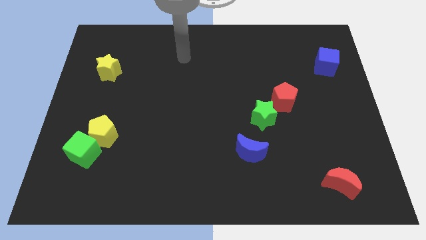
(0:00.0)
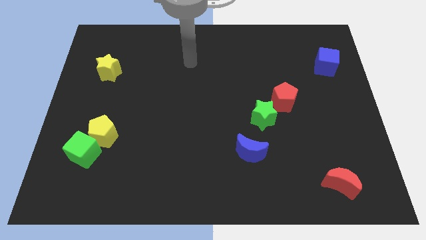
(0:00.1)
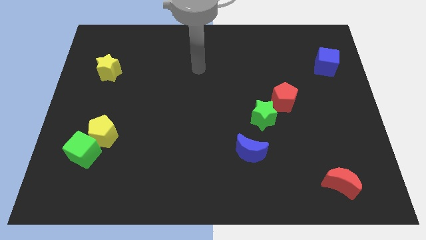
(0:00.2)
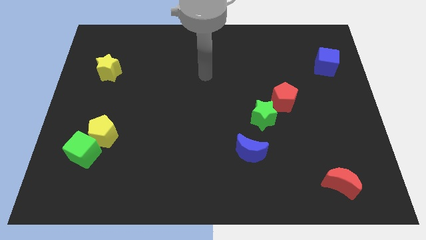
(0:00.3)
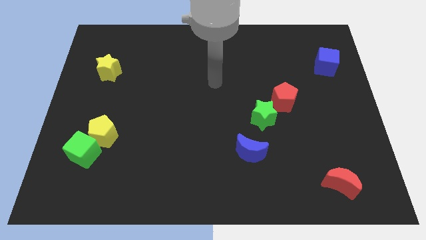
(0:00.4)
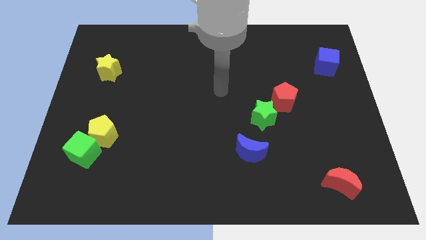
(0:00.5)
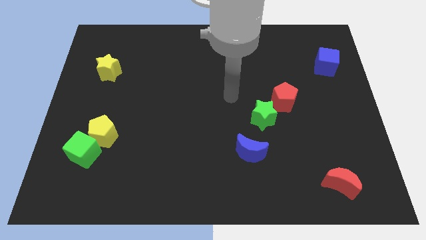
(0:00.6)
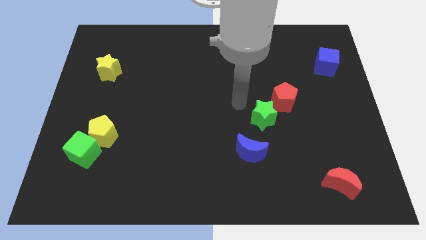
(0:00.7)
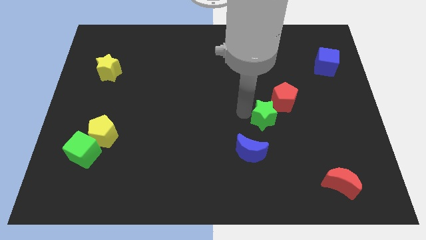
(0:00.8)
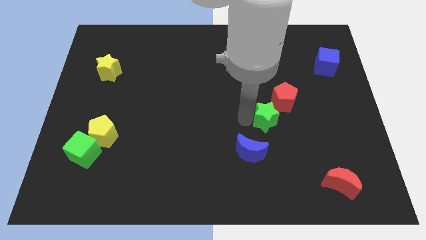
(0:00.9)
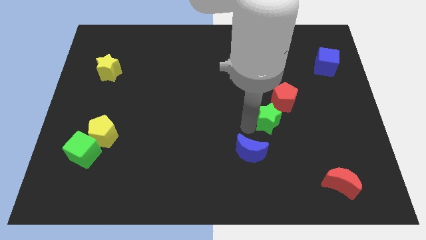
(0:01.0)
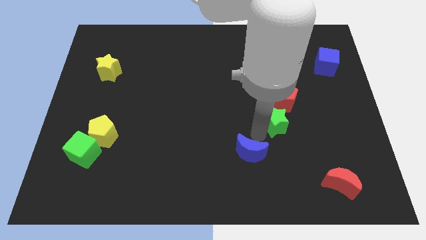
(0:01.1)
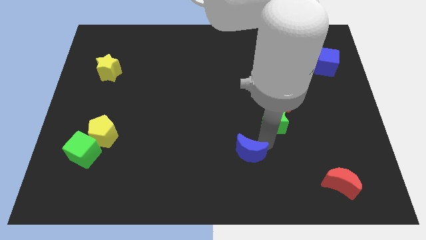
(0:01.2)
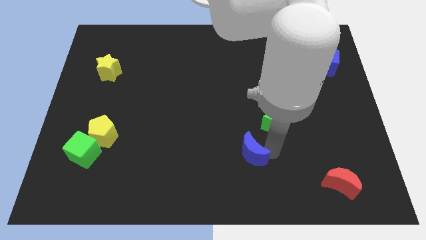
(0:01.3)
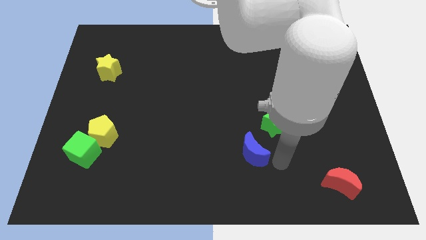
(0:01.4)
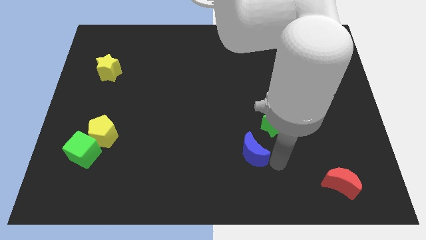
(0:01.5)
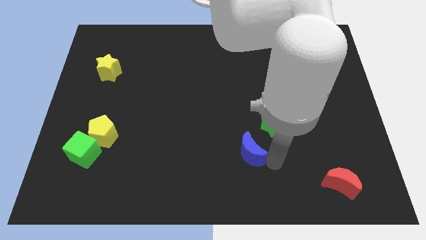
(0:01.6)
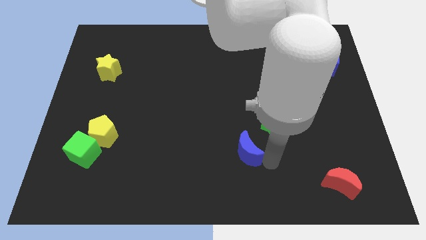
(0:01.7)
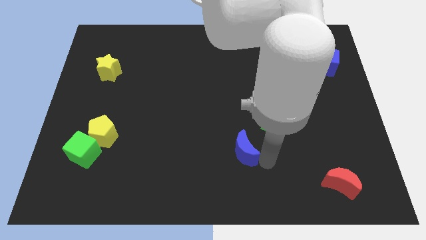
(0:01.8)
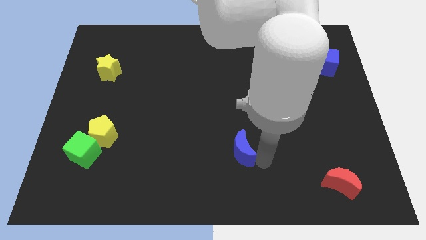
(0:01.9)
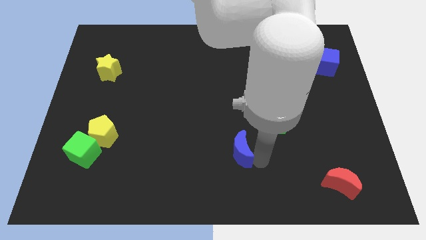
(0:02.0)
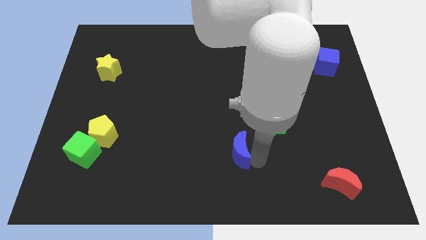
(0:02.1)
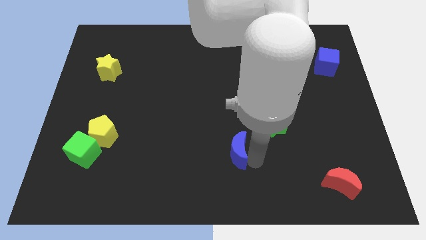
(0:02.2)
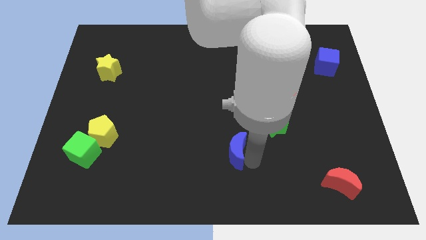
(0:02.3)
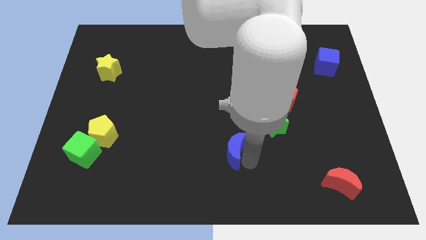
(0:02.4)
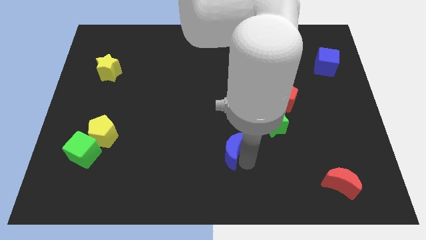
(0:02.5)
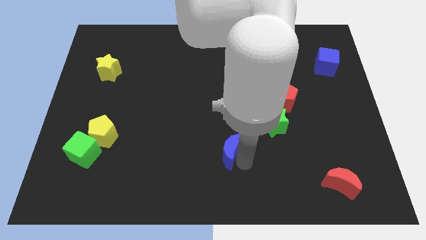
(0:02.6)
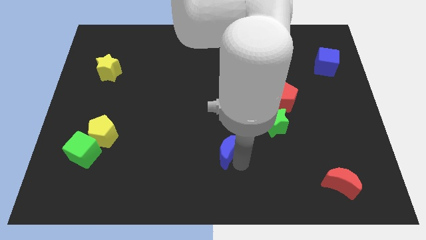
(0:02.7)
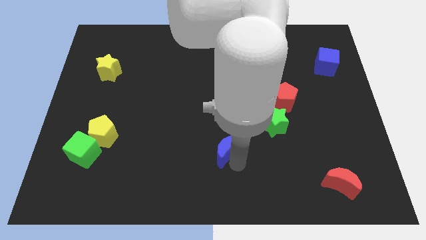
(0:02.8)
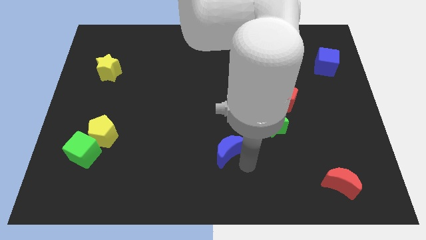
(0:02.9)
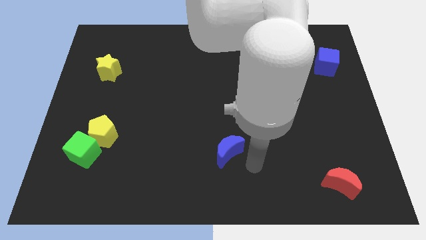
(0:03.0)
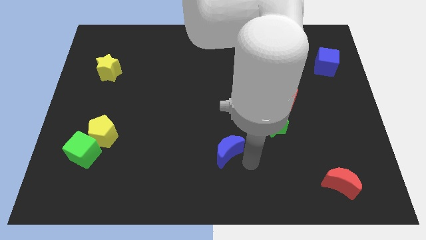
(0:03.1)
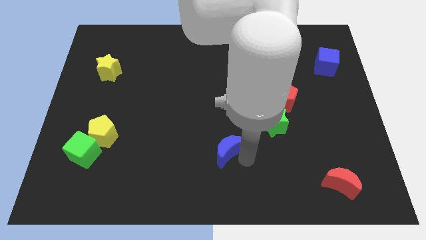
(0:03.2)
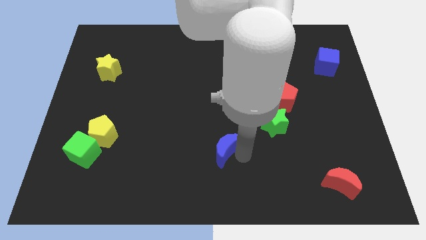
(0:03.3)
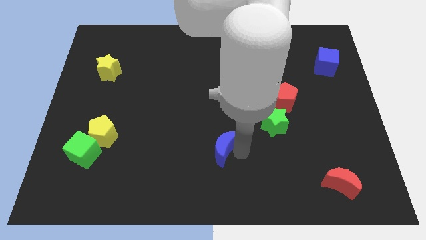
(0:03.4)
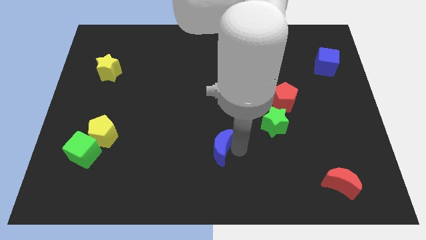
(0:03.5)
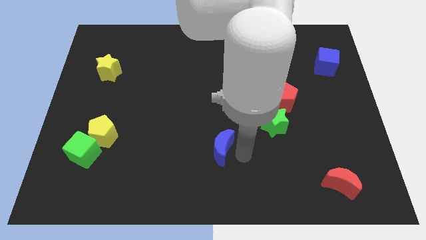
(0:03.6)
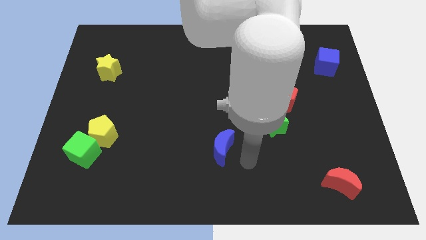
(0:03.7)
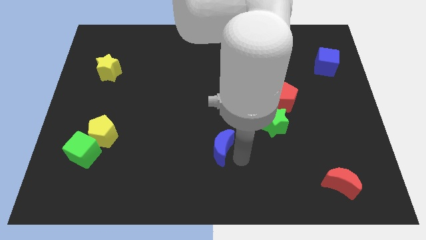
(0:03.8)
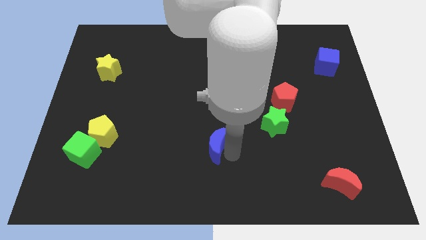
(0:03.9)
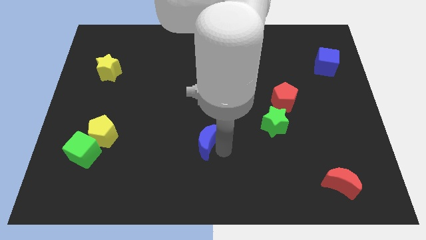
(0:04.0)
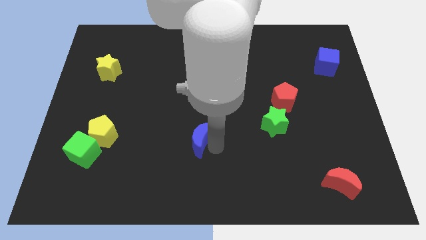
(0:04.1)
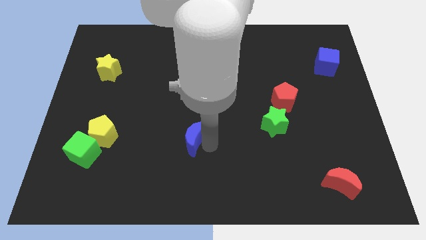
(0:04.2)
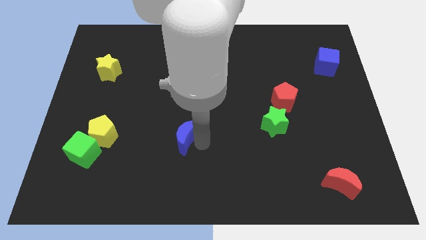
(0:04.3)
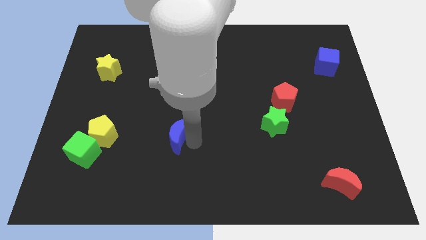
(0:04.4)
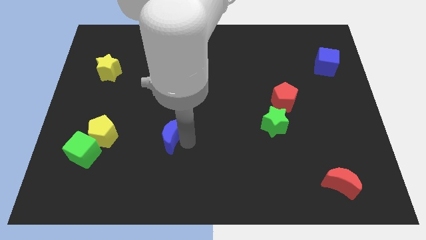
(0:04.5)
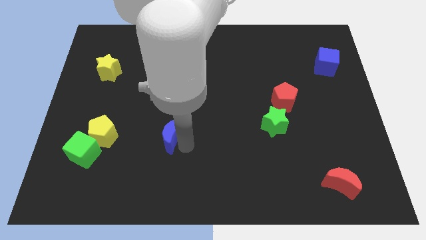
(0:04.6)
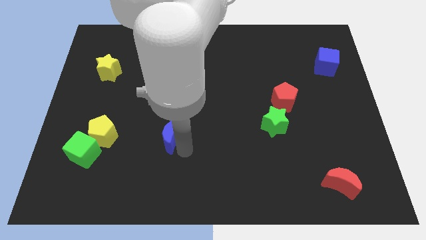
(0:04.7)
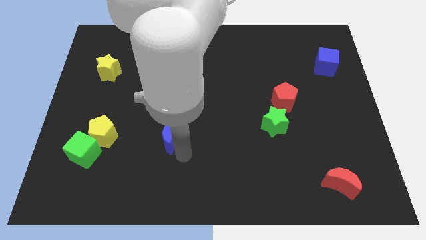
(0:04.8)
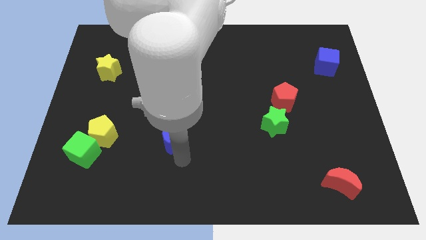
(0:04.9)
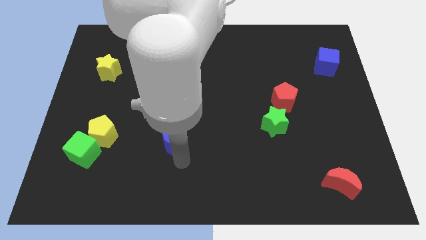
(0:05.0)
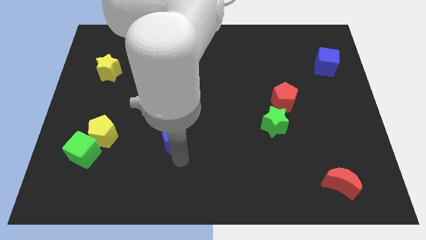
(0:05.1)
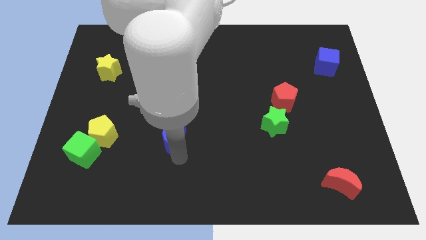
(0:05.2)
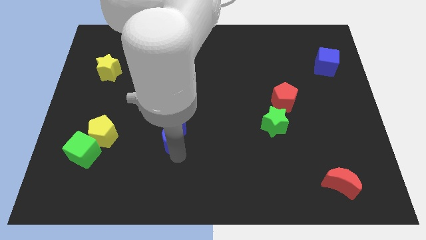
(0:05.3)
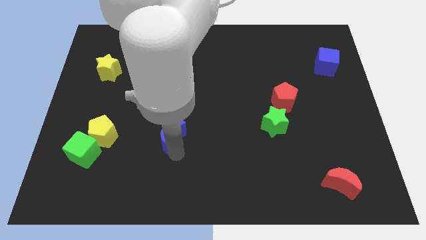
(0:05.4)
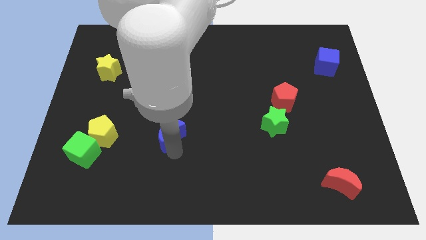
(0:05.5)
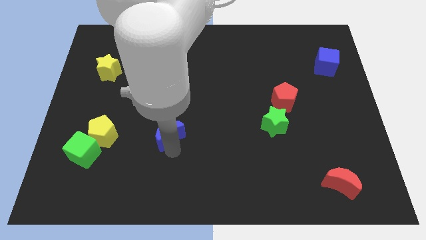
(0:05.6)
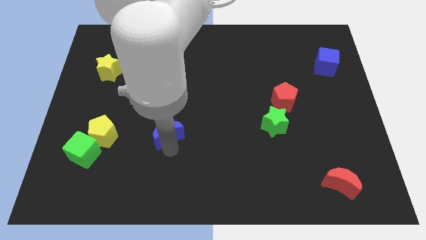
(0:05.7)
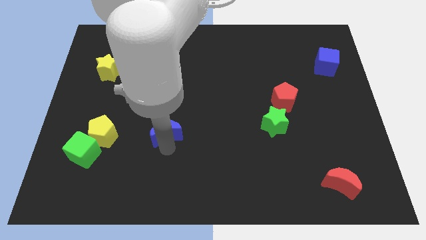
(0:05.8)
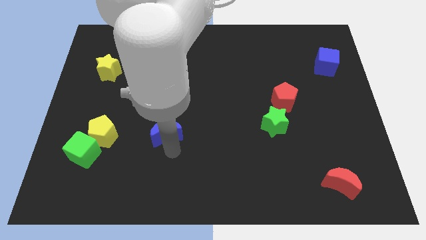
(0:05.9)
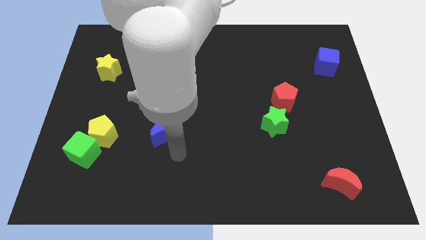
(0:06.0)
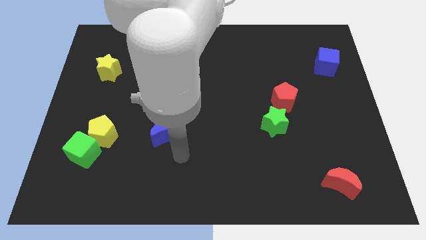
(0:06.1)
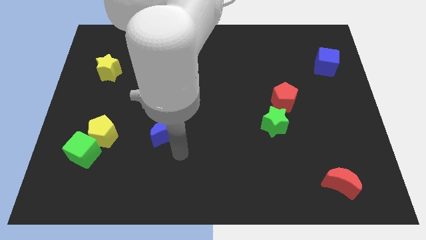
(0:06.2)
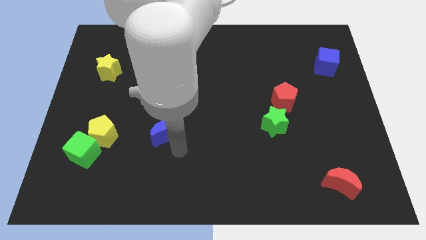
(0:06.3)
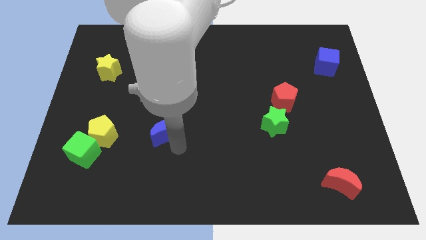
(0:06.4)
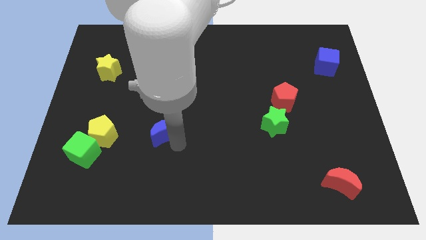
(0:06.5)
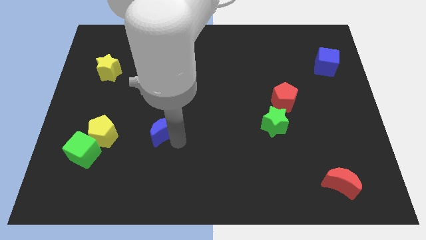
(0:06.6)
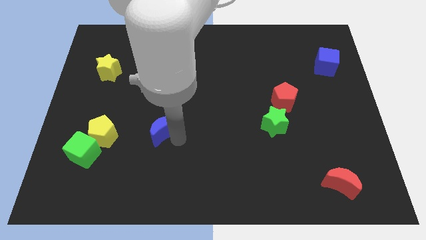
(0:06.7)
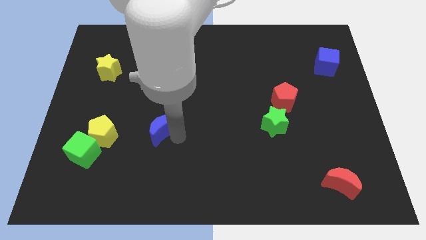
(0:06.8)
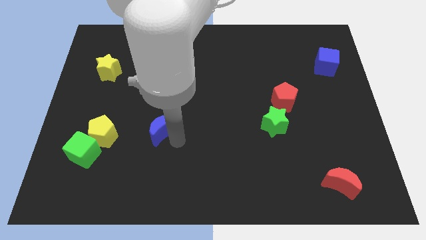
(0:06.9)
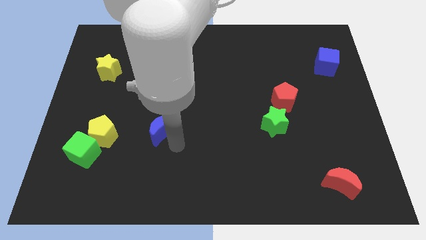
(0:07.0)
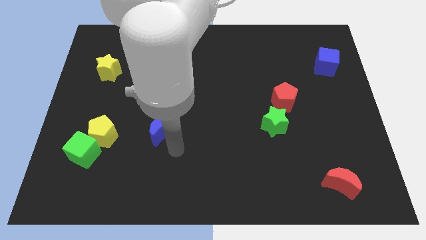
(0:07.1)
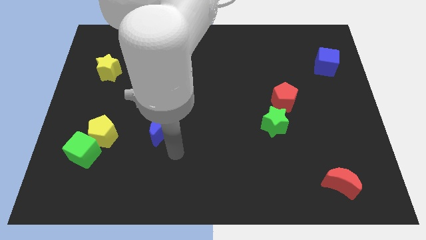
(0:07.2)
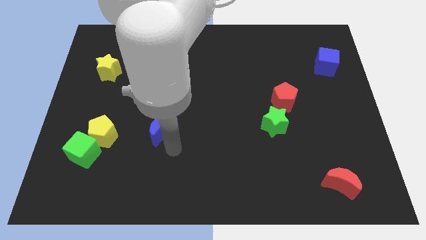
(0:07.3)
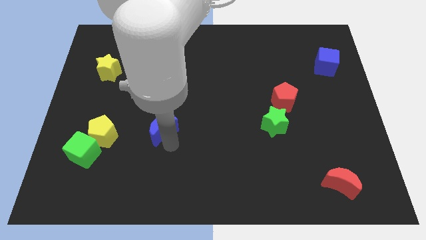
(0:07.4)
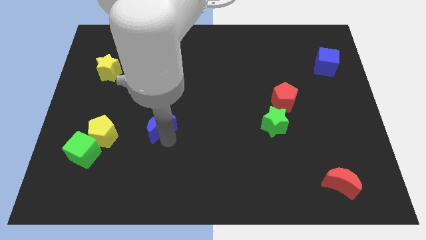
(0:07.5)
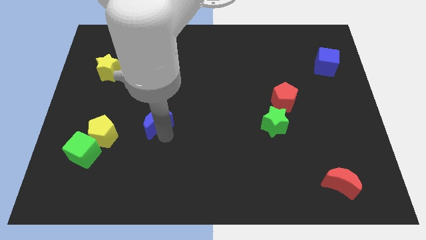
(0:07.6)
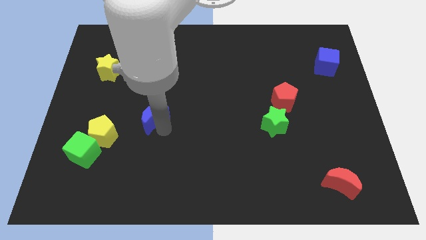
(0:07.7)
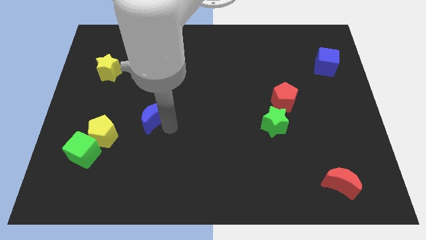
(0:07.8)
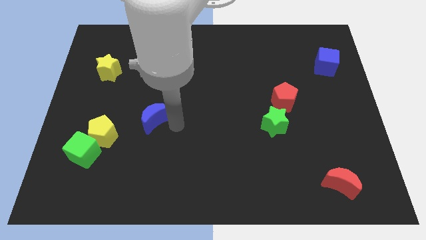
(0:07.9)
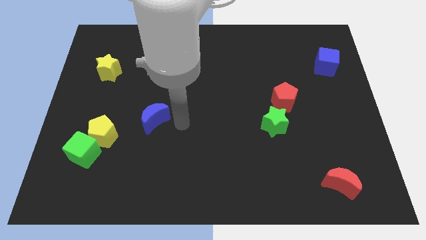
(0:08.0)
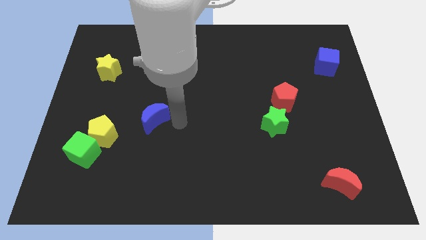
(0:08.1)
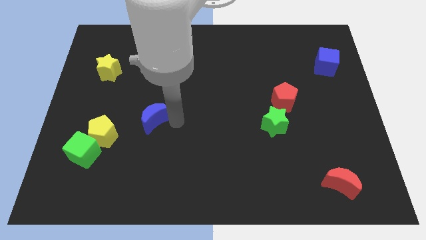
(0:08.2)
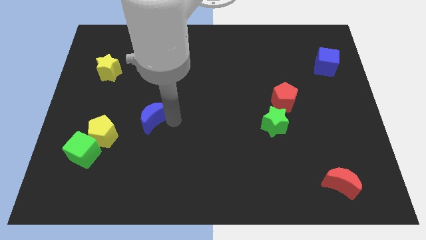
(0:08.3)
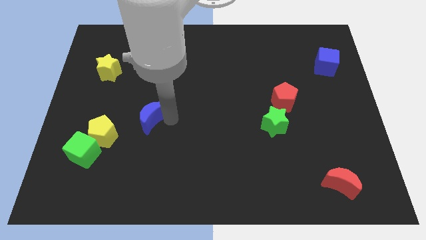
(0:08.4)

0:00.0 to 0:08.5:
push the blue moon to the top right of the yellow pentagon
